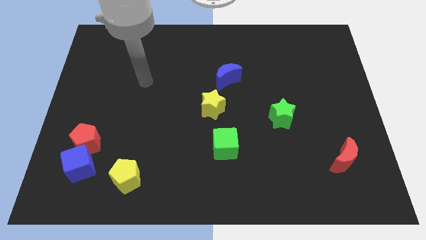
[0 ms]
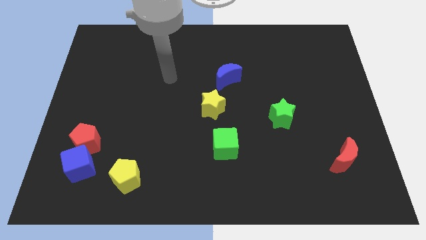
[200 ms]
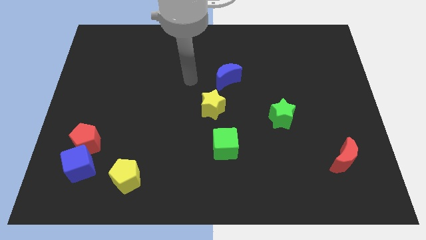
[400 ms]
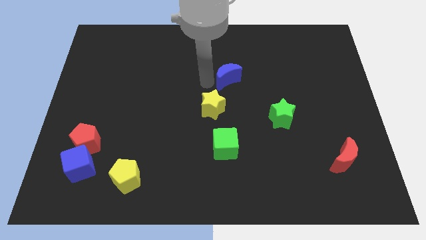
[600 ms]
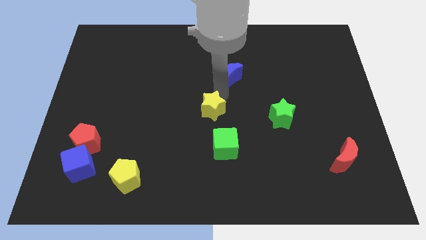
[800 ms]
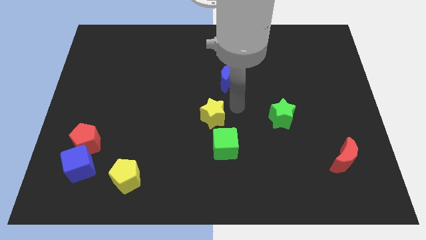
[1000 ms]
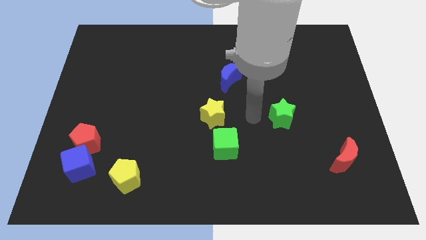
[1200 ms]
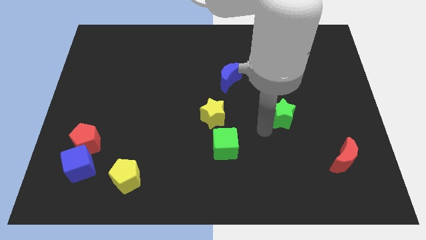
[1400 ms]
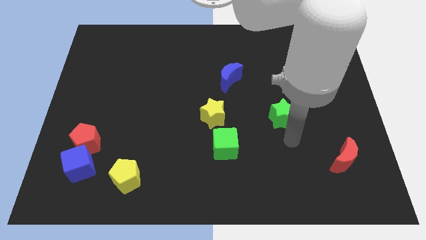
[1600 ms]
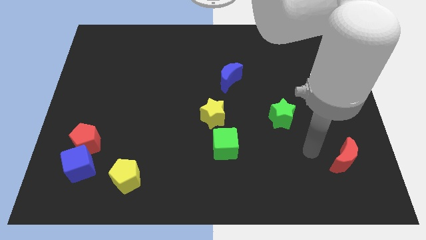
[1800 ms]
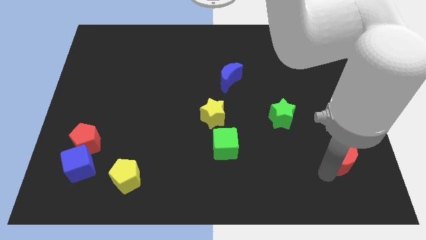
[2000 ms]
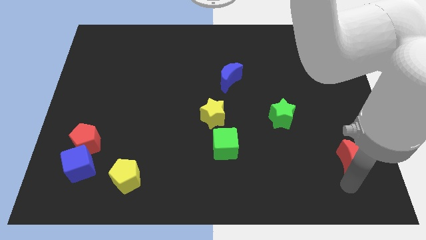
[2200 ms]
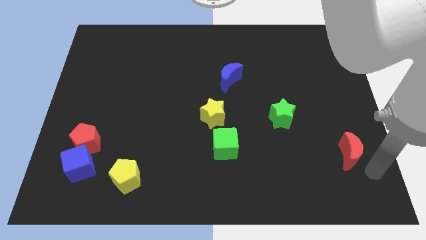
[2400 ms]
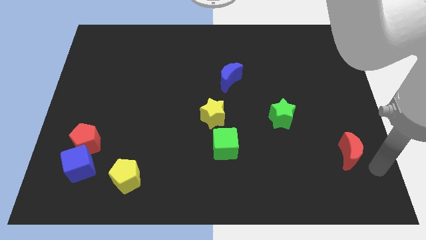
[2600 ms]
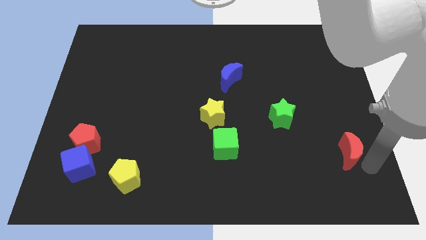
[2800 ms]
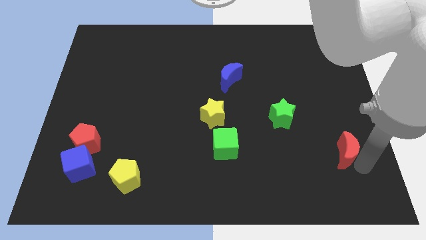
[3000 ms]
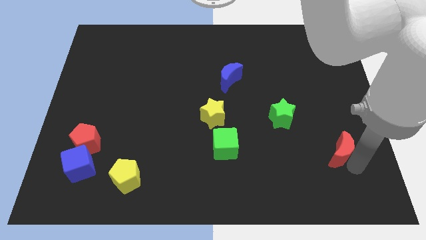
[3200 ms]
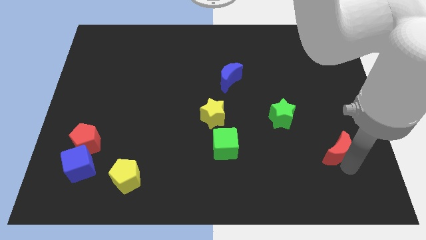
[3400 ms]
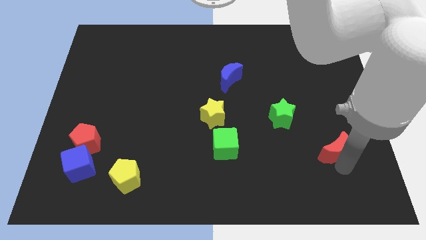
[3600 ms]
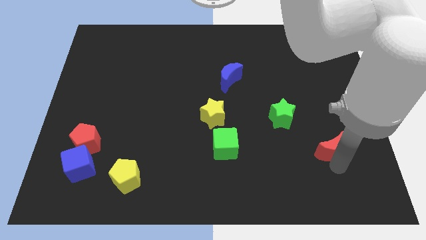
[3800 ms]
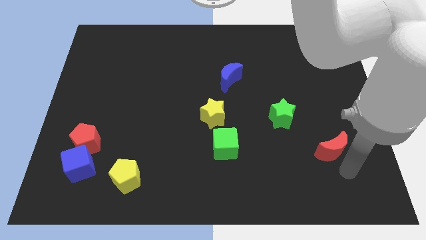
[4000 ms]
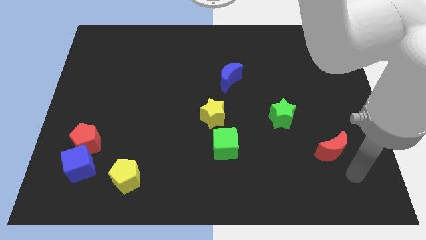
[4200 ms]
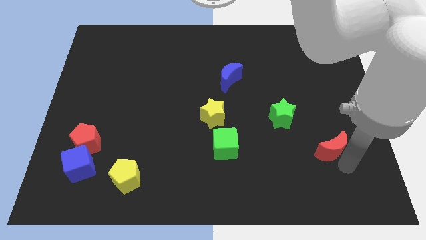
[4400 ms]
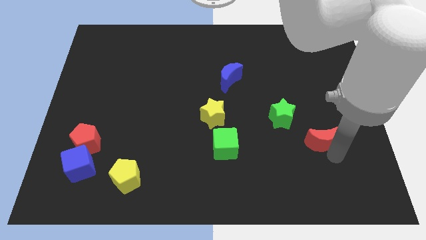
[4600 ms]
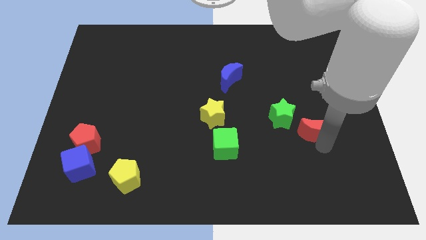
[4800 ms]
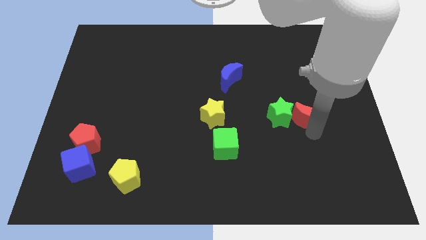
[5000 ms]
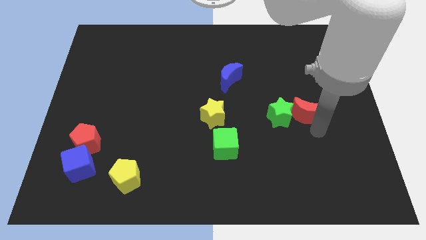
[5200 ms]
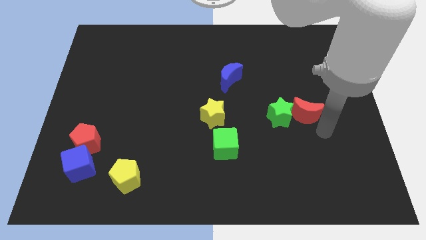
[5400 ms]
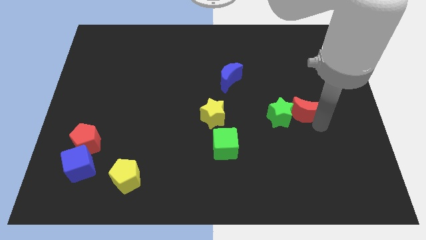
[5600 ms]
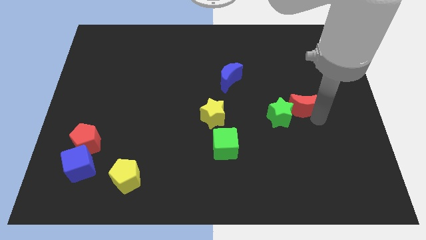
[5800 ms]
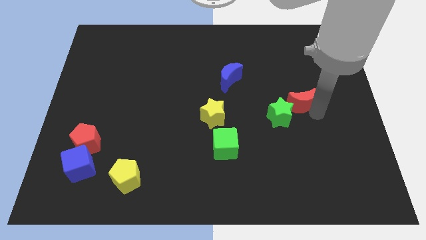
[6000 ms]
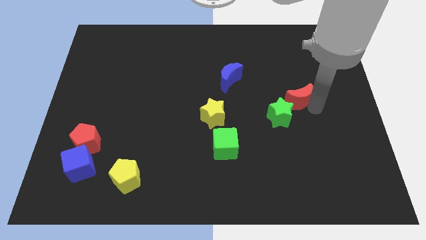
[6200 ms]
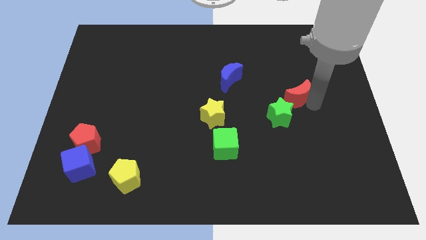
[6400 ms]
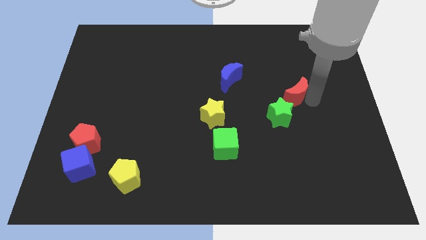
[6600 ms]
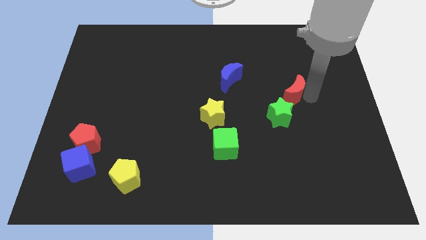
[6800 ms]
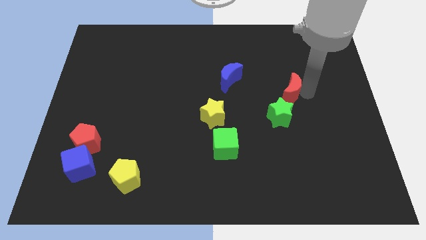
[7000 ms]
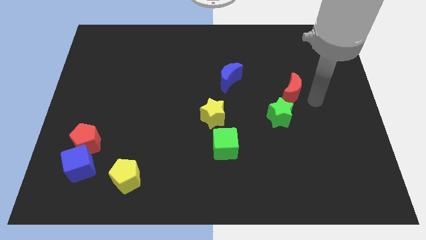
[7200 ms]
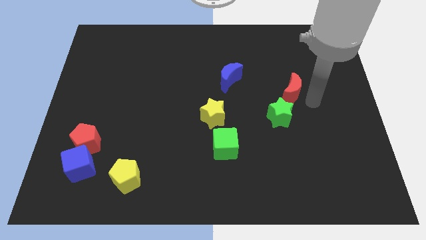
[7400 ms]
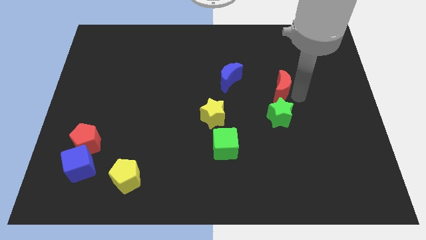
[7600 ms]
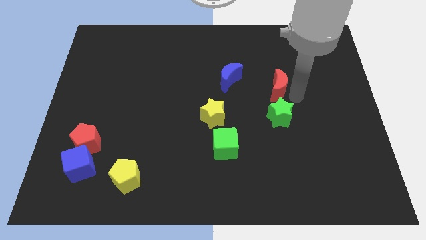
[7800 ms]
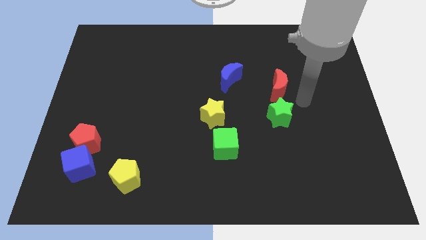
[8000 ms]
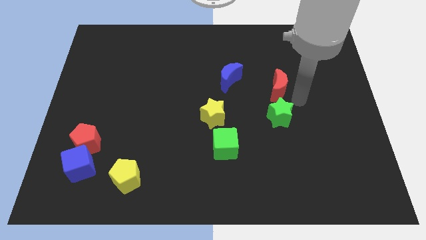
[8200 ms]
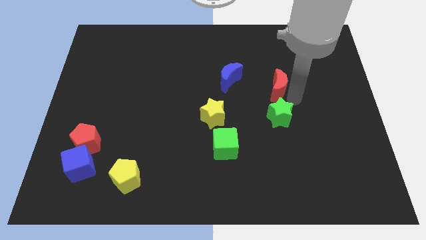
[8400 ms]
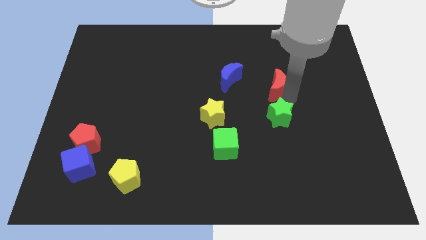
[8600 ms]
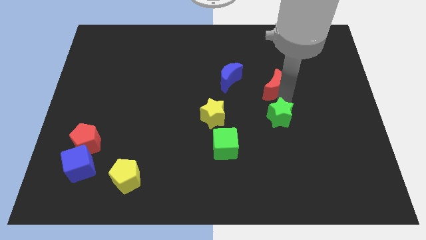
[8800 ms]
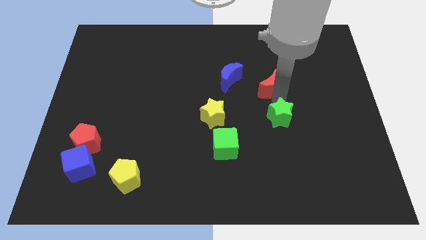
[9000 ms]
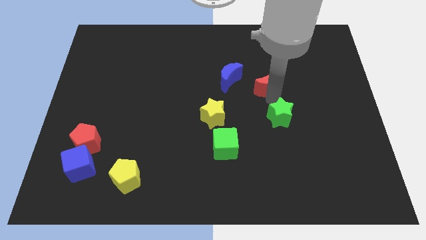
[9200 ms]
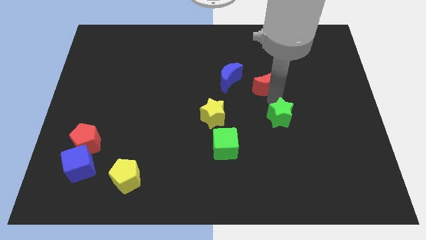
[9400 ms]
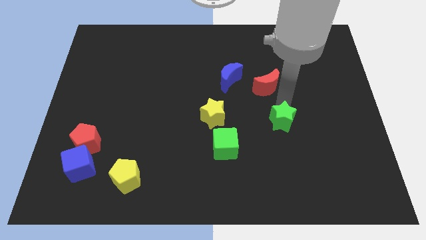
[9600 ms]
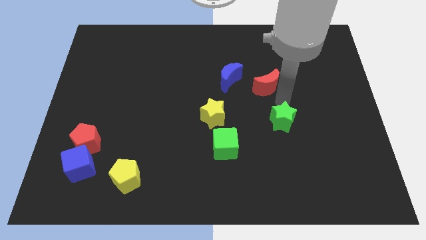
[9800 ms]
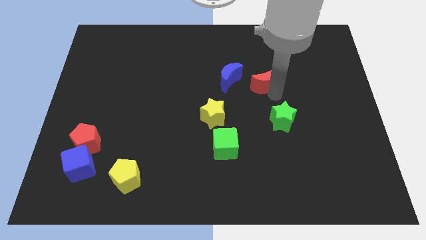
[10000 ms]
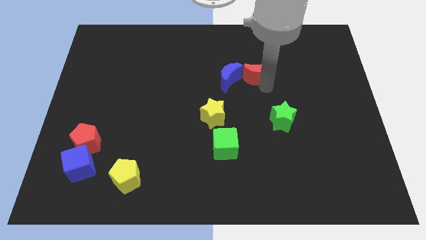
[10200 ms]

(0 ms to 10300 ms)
slide the red moon to the top right side of the blue moon

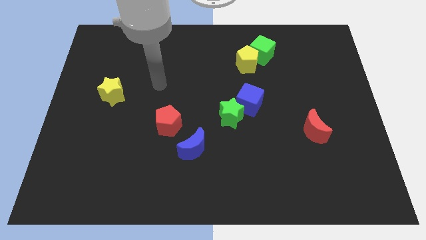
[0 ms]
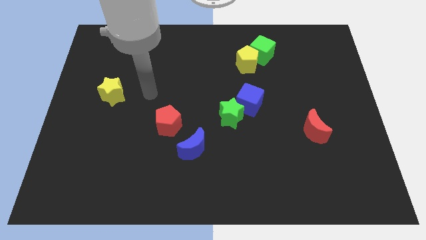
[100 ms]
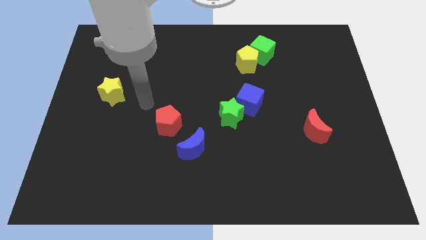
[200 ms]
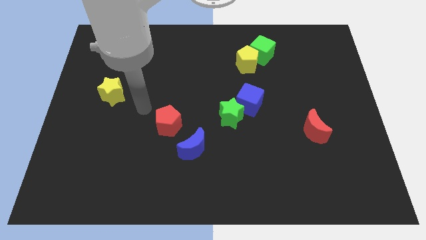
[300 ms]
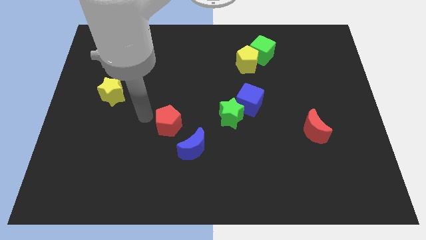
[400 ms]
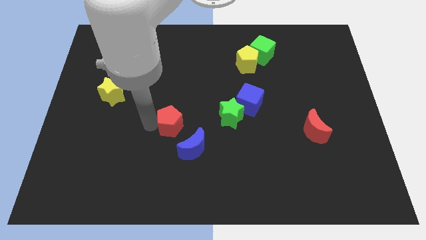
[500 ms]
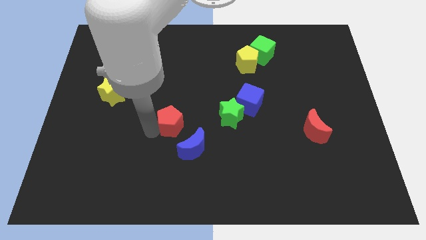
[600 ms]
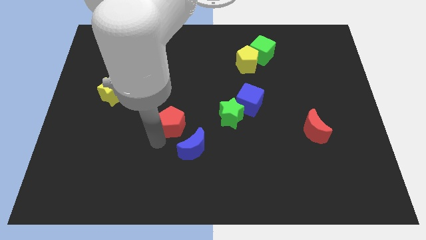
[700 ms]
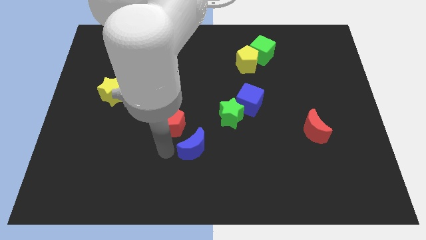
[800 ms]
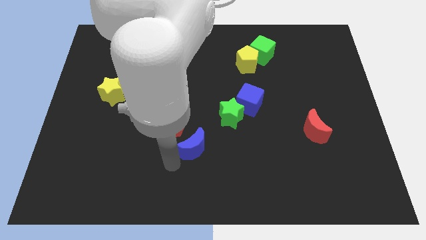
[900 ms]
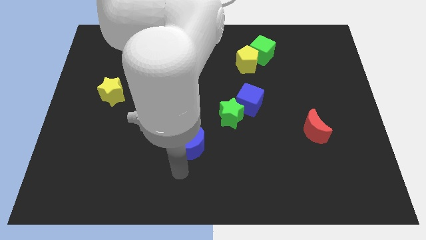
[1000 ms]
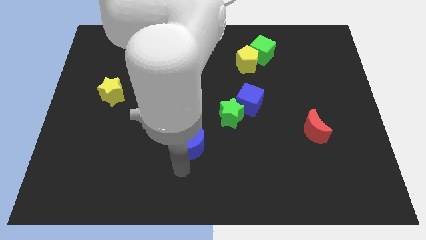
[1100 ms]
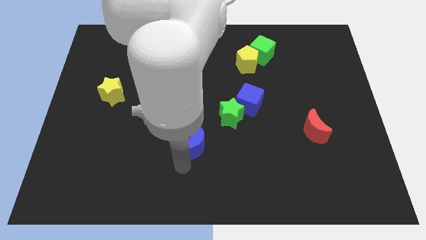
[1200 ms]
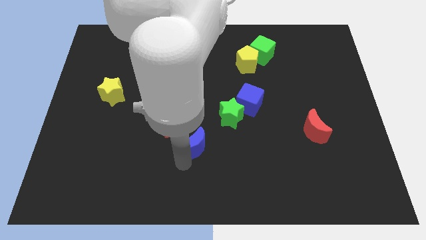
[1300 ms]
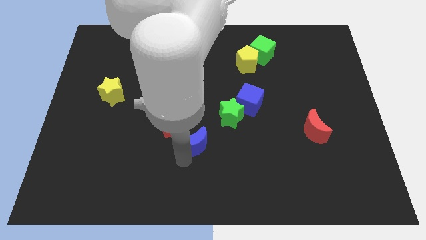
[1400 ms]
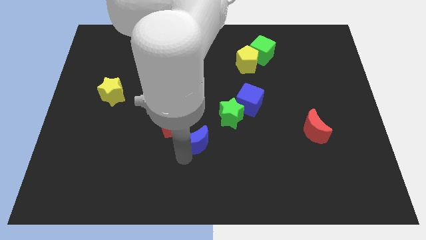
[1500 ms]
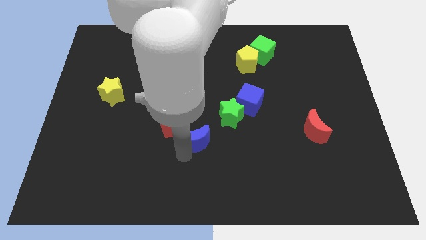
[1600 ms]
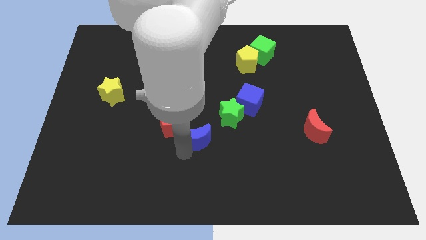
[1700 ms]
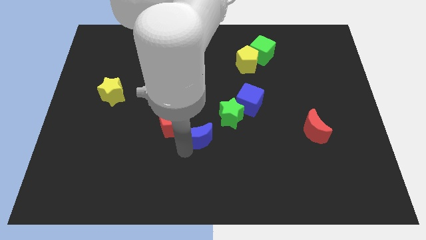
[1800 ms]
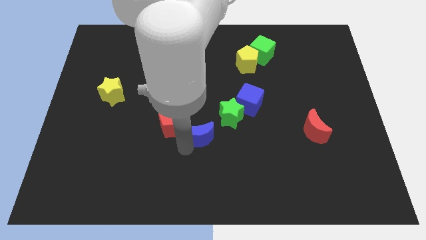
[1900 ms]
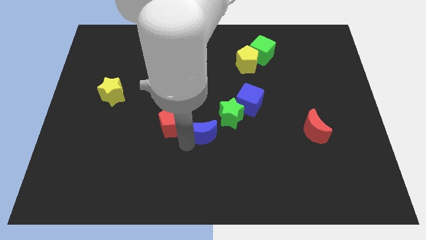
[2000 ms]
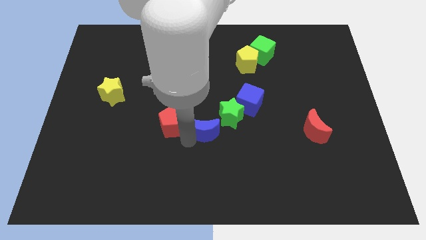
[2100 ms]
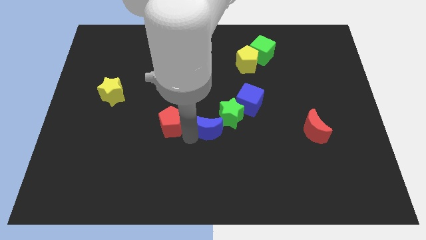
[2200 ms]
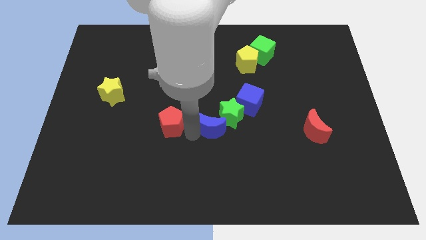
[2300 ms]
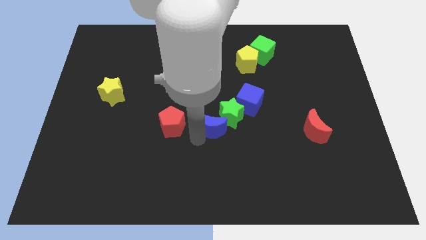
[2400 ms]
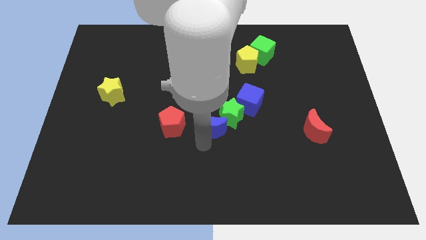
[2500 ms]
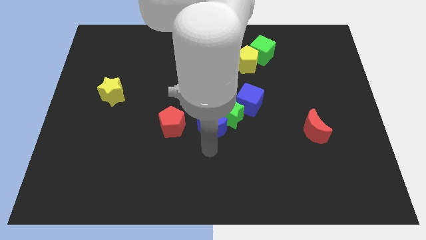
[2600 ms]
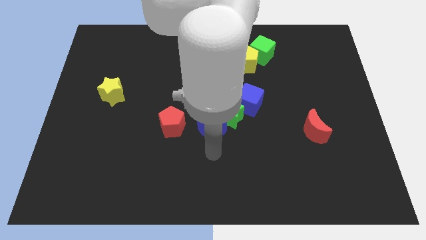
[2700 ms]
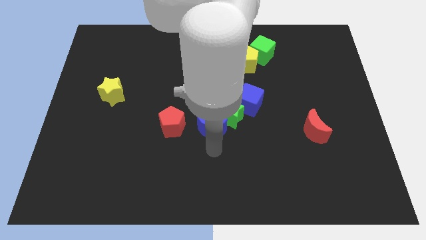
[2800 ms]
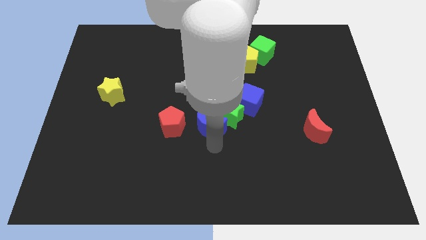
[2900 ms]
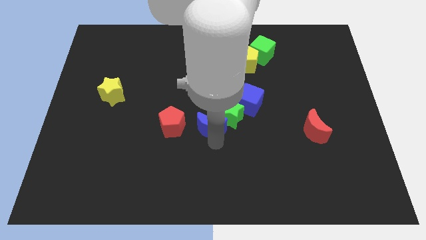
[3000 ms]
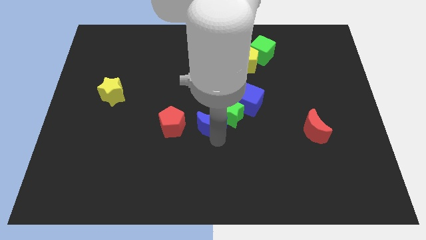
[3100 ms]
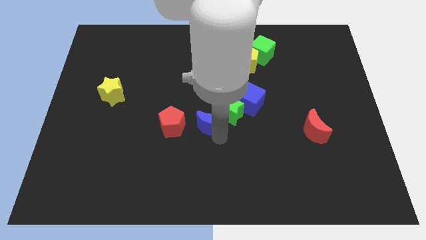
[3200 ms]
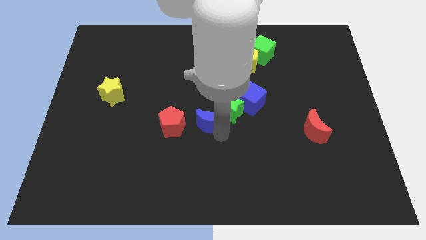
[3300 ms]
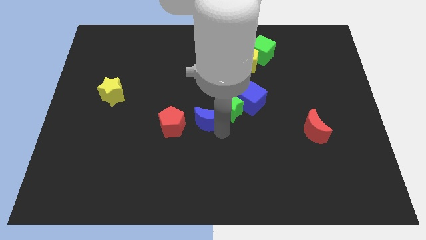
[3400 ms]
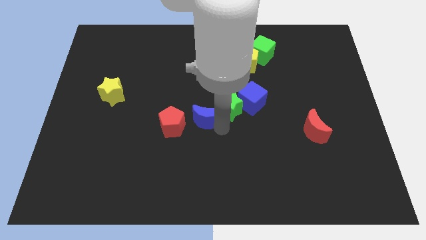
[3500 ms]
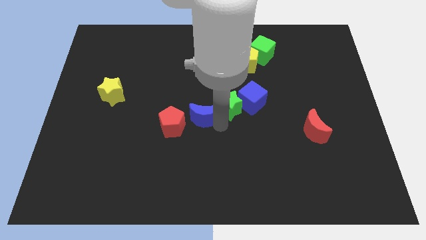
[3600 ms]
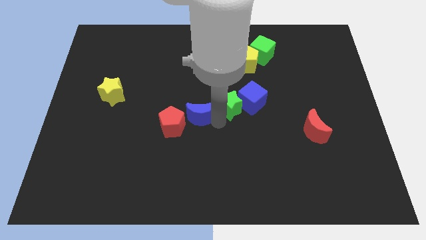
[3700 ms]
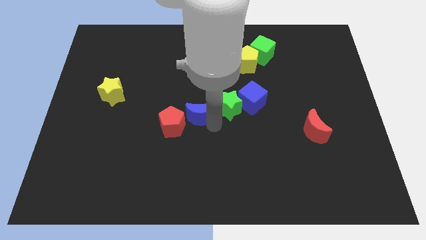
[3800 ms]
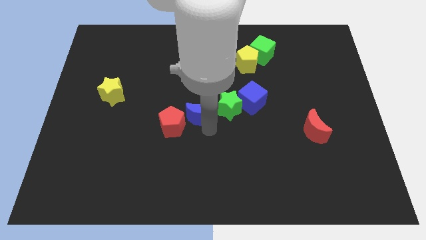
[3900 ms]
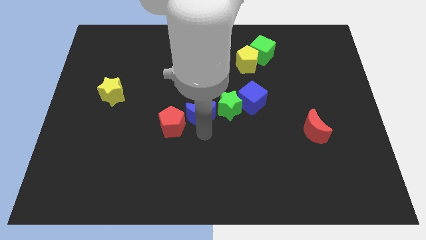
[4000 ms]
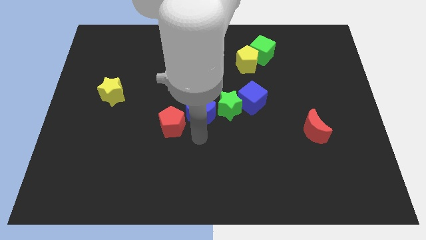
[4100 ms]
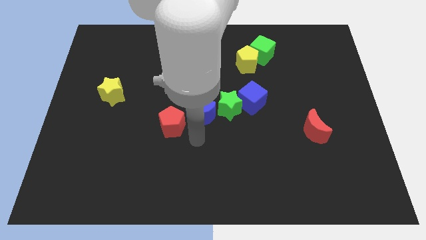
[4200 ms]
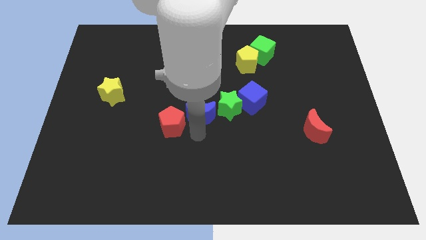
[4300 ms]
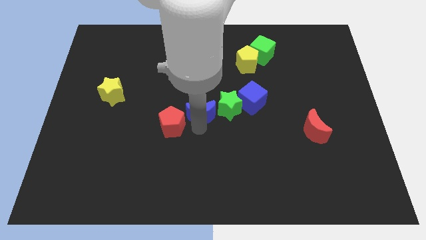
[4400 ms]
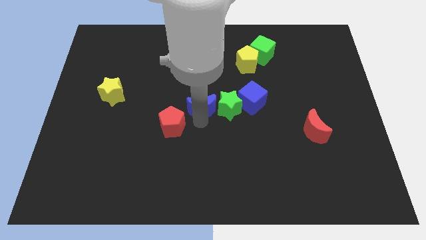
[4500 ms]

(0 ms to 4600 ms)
slide the blue moon to the top left of the green star
